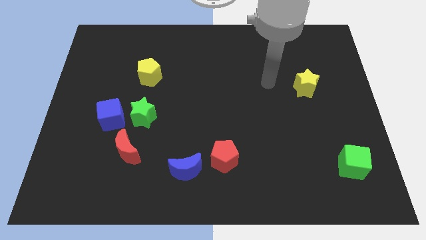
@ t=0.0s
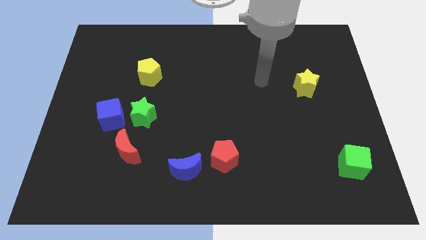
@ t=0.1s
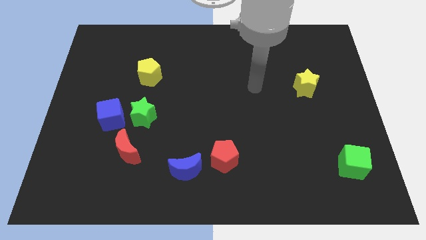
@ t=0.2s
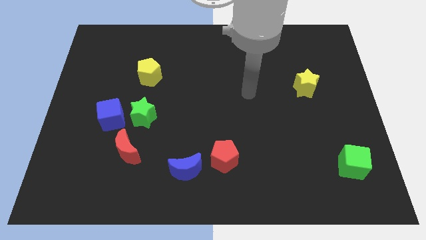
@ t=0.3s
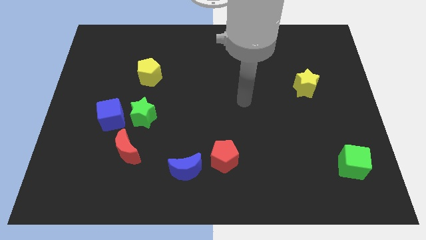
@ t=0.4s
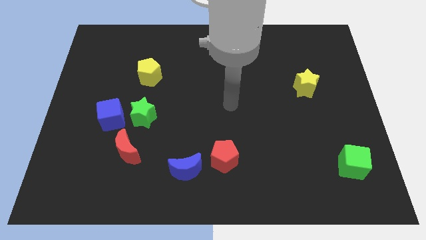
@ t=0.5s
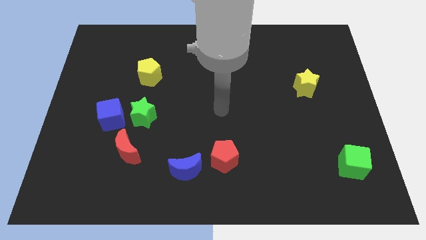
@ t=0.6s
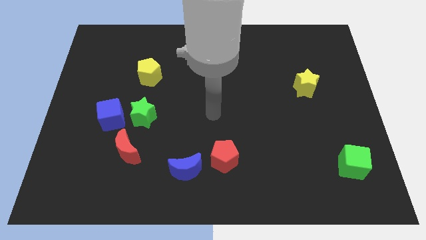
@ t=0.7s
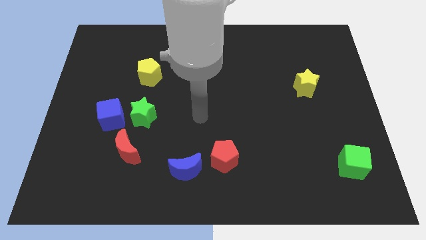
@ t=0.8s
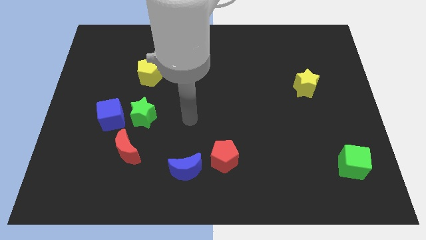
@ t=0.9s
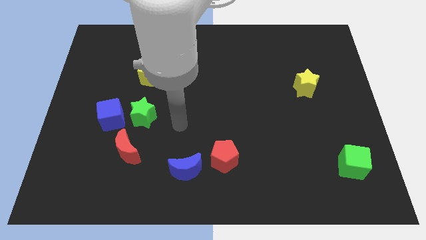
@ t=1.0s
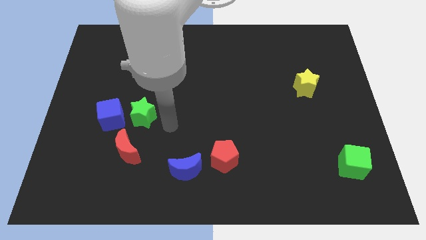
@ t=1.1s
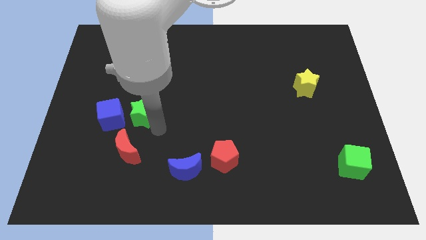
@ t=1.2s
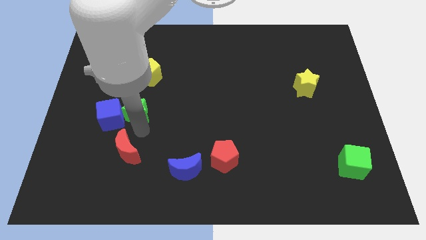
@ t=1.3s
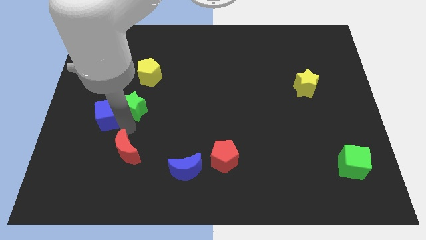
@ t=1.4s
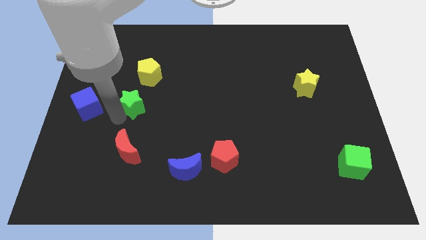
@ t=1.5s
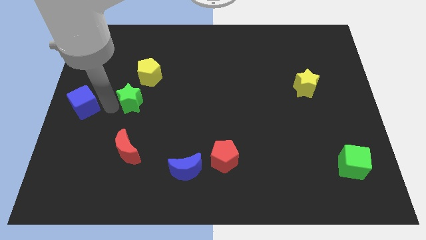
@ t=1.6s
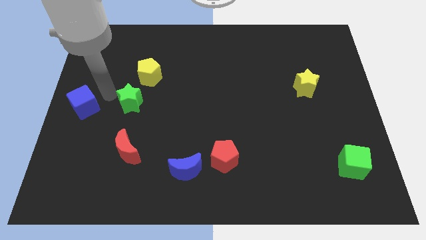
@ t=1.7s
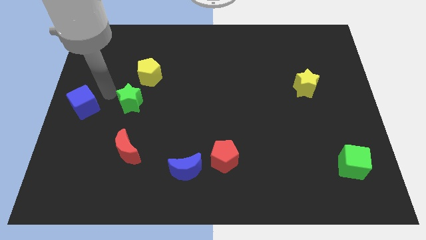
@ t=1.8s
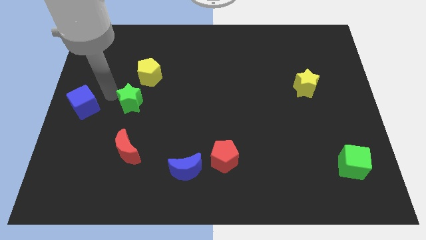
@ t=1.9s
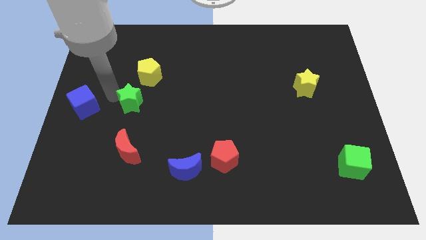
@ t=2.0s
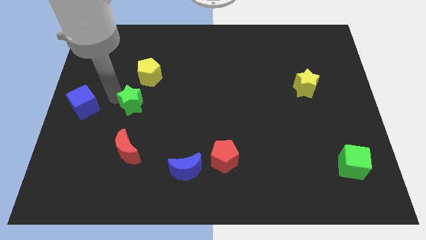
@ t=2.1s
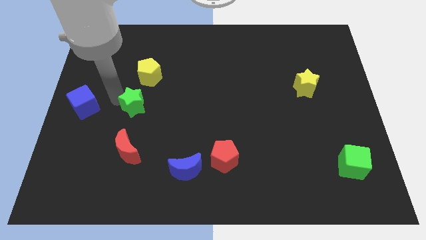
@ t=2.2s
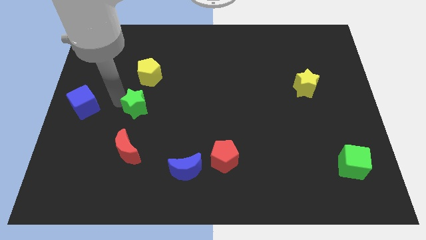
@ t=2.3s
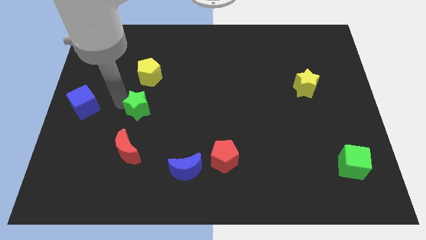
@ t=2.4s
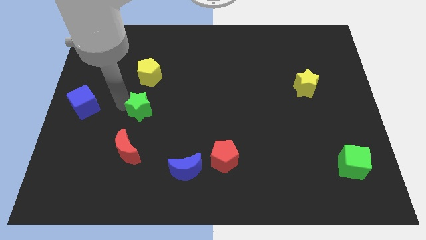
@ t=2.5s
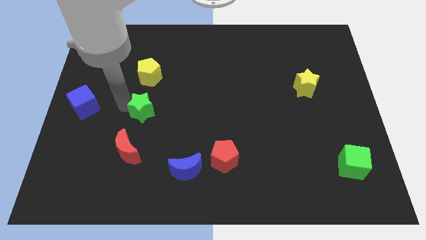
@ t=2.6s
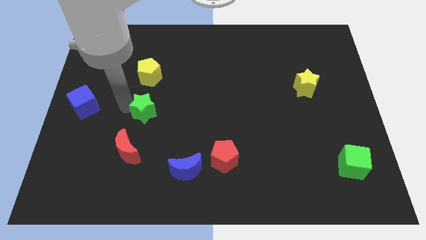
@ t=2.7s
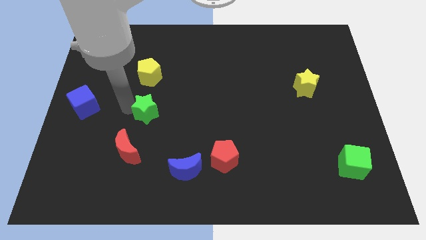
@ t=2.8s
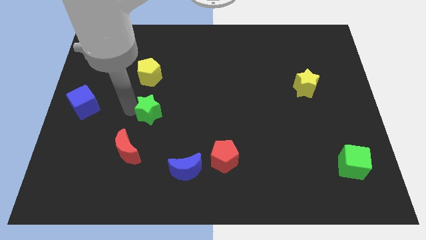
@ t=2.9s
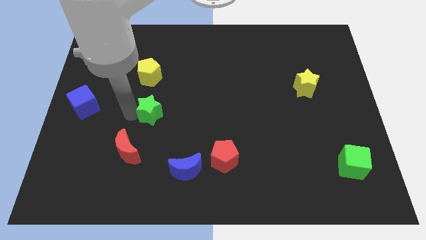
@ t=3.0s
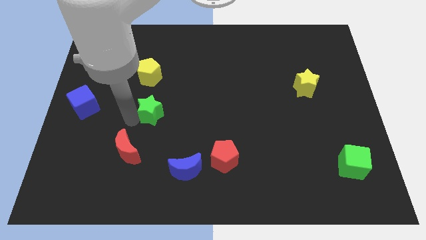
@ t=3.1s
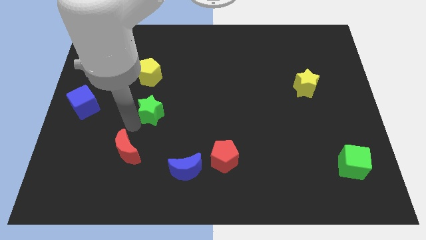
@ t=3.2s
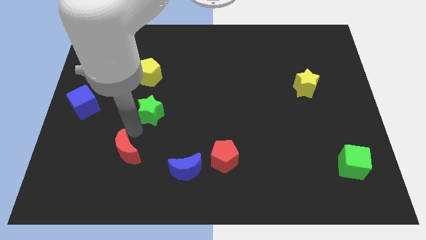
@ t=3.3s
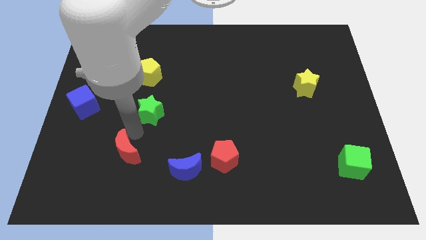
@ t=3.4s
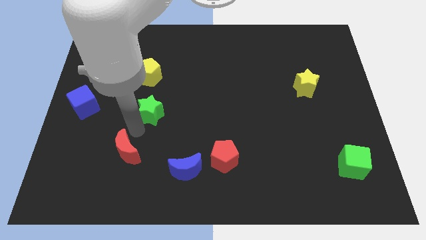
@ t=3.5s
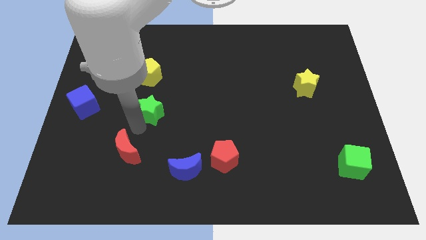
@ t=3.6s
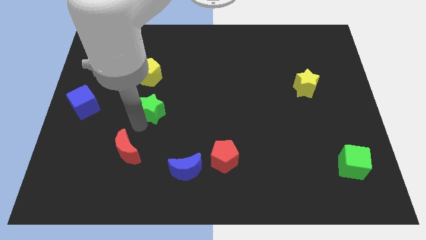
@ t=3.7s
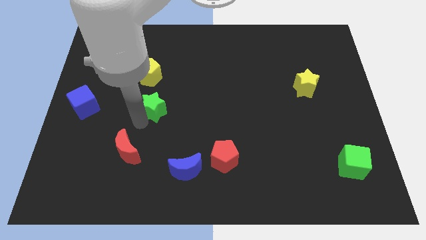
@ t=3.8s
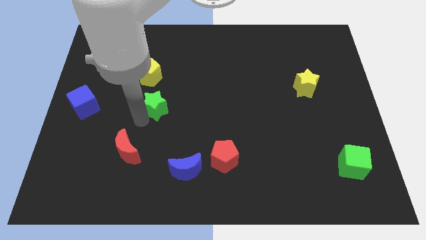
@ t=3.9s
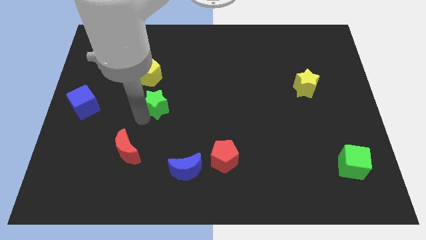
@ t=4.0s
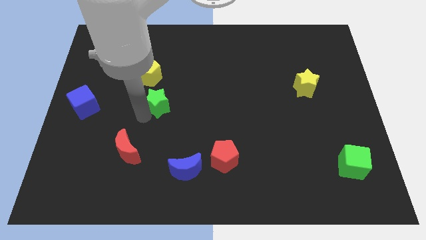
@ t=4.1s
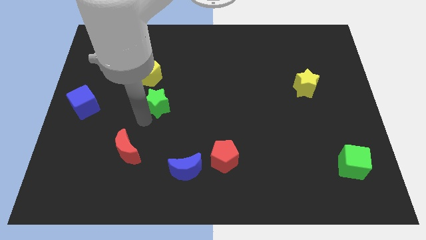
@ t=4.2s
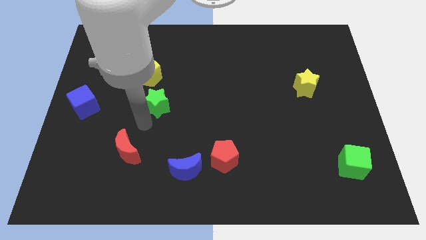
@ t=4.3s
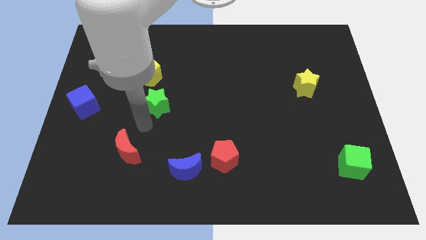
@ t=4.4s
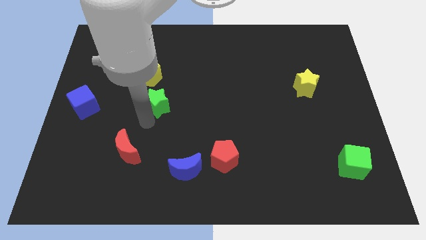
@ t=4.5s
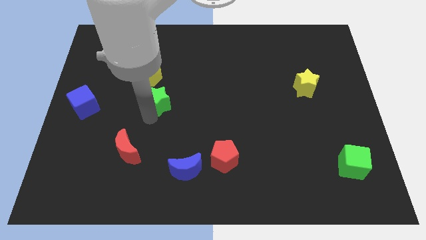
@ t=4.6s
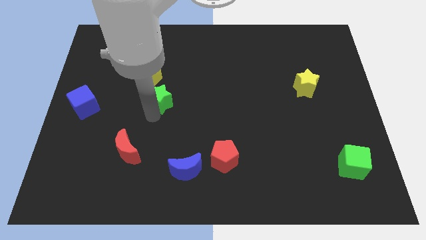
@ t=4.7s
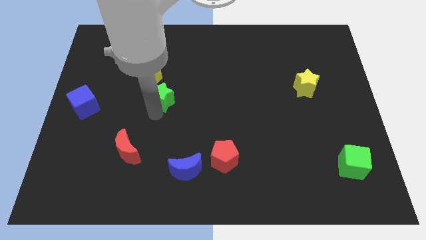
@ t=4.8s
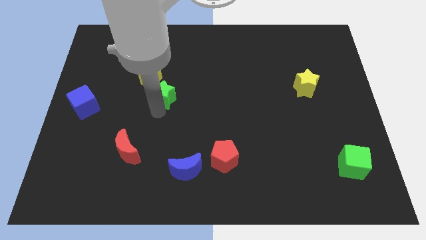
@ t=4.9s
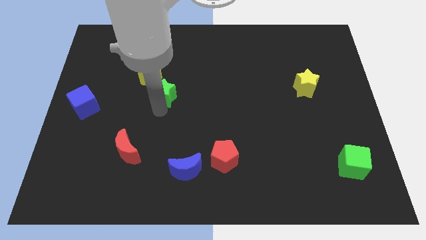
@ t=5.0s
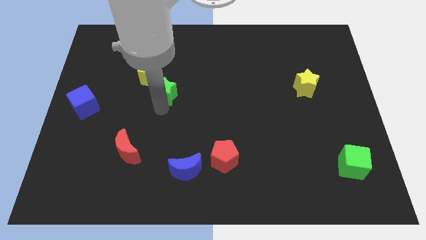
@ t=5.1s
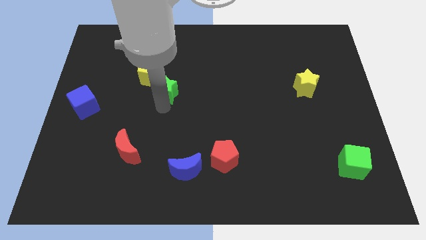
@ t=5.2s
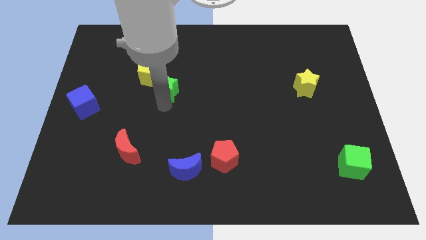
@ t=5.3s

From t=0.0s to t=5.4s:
slide the green star upwards somewhat

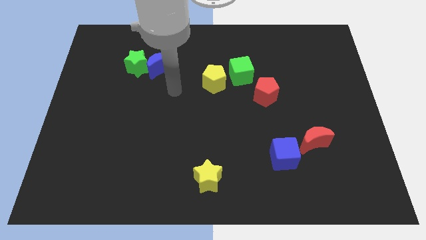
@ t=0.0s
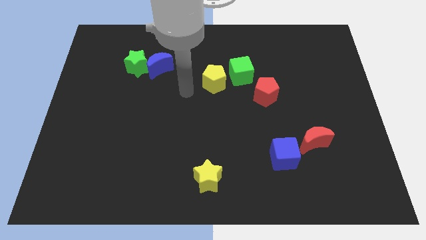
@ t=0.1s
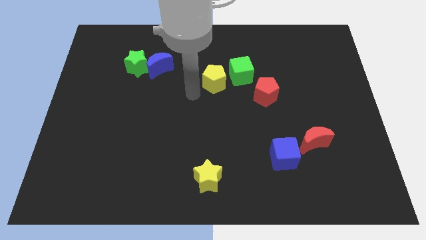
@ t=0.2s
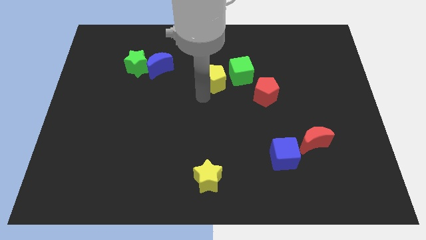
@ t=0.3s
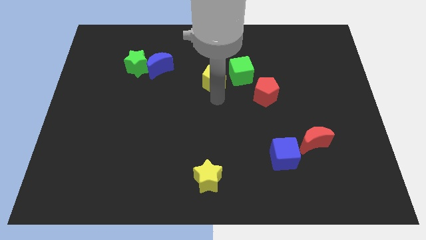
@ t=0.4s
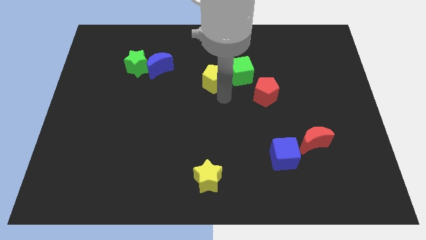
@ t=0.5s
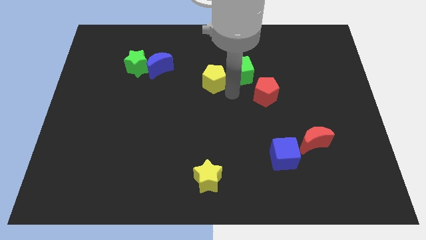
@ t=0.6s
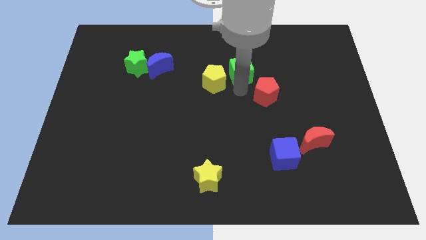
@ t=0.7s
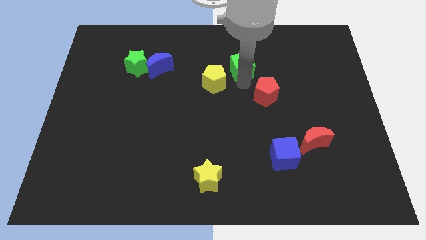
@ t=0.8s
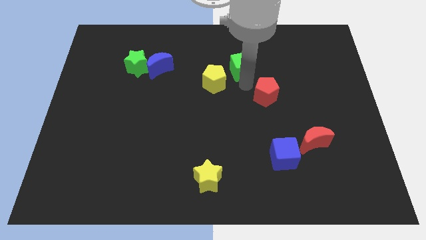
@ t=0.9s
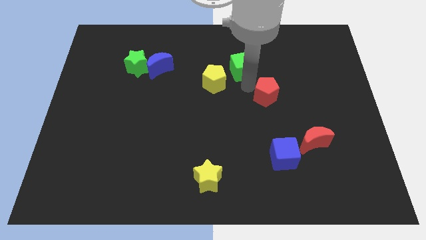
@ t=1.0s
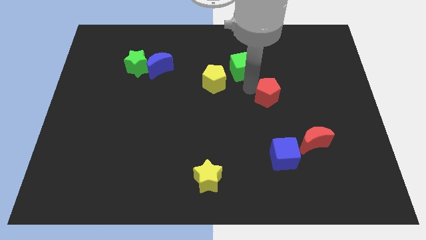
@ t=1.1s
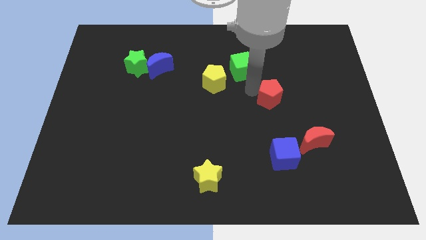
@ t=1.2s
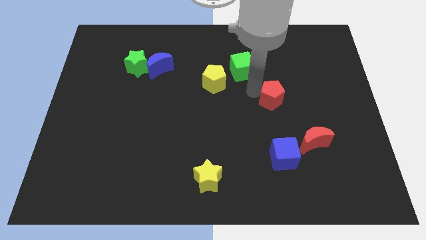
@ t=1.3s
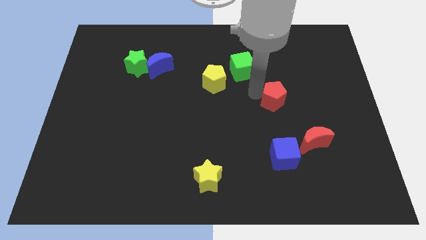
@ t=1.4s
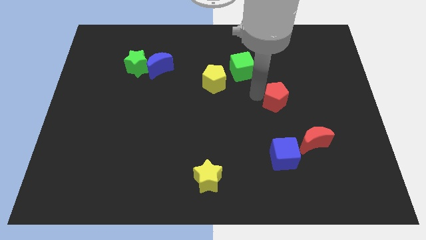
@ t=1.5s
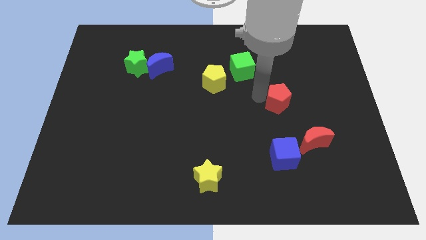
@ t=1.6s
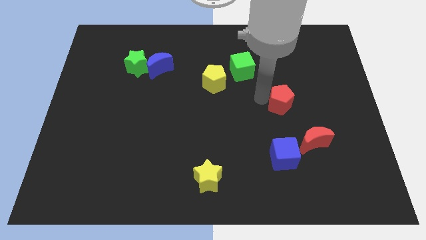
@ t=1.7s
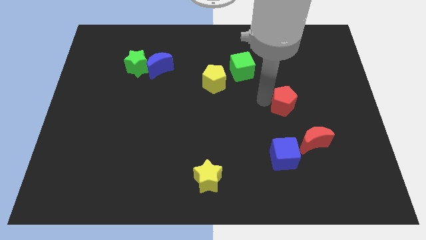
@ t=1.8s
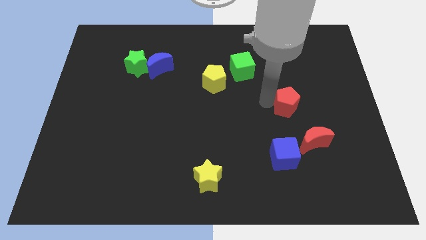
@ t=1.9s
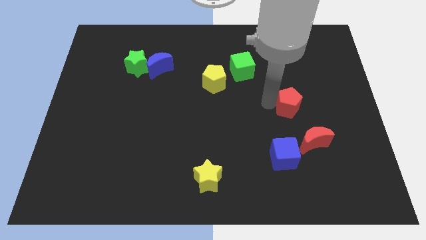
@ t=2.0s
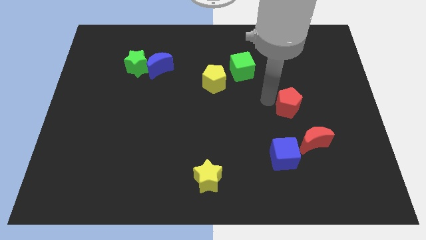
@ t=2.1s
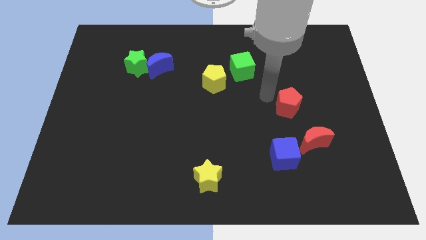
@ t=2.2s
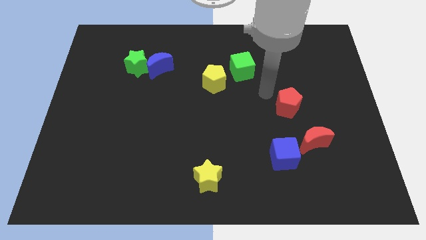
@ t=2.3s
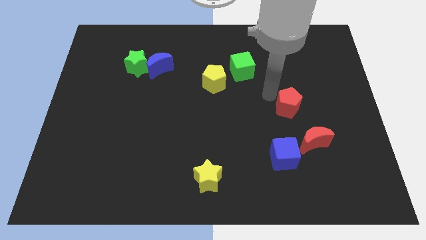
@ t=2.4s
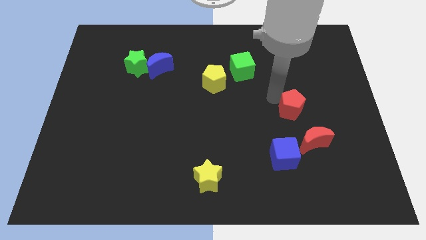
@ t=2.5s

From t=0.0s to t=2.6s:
move the red pentagon downwards and to the right diagonally a little
